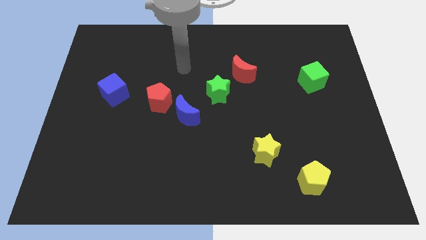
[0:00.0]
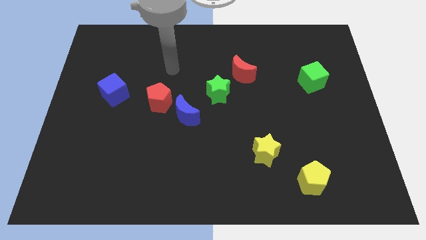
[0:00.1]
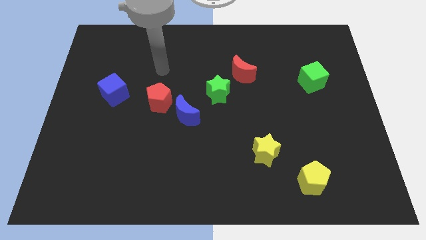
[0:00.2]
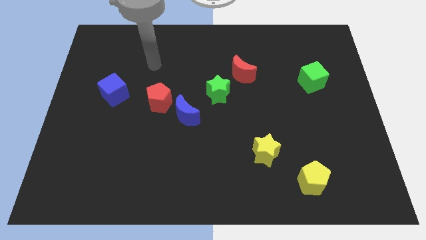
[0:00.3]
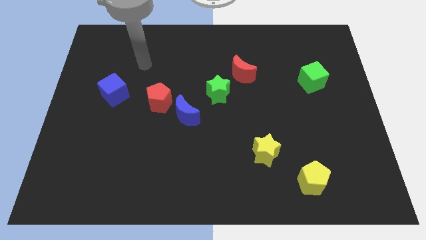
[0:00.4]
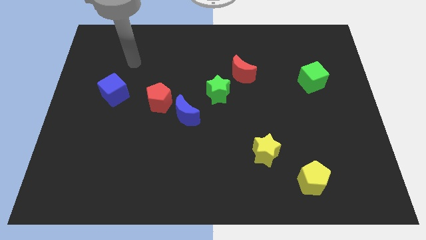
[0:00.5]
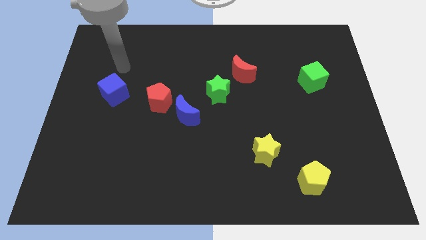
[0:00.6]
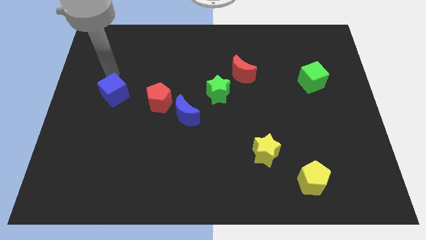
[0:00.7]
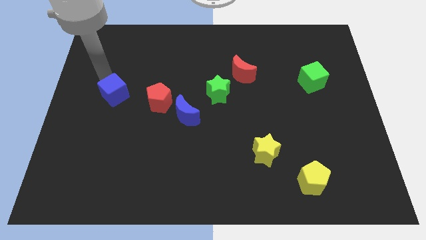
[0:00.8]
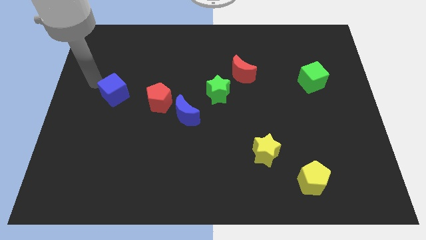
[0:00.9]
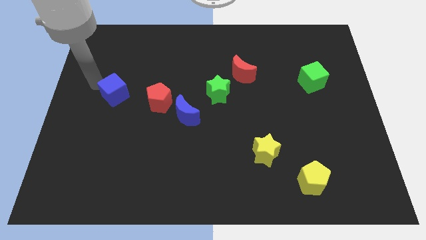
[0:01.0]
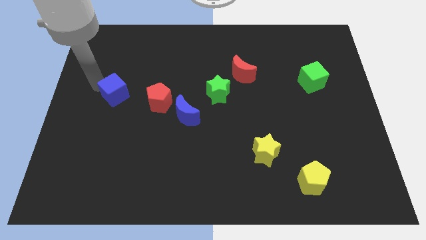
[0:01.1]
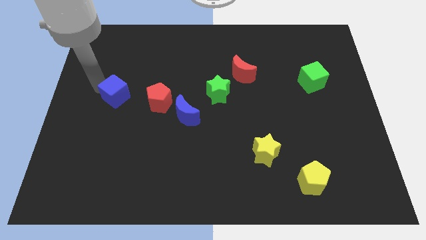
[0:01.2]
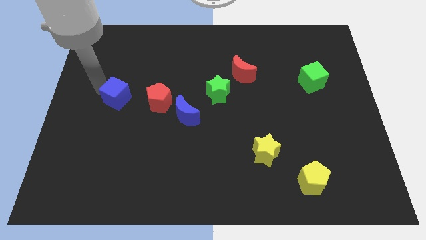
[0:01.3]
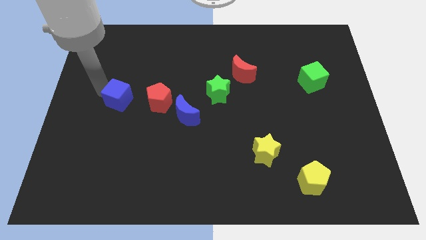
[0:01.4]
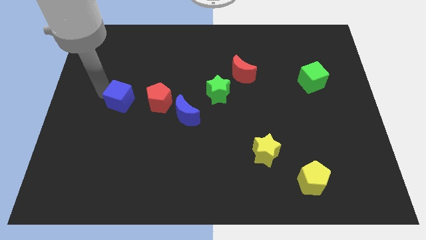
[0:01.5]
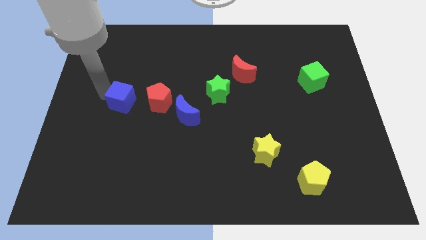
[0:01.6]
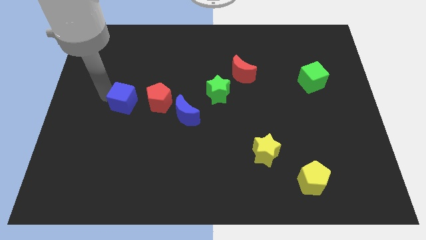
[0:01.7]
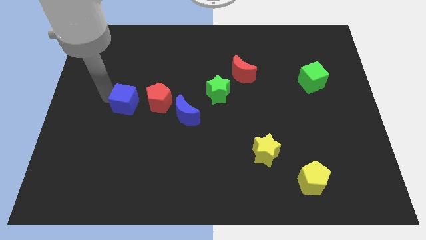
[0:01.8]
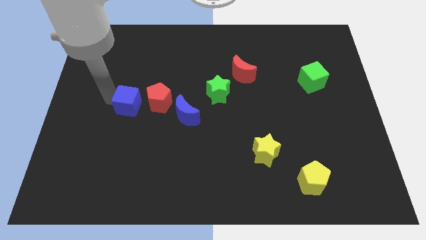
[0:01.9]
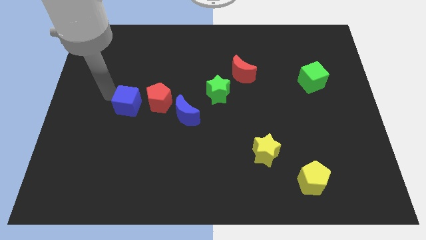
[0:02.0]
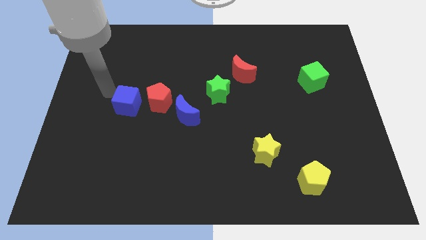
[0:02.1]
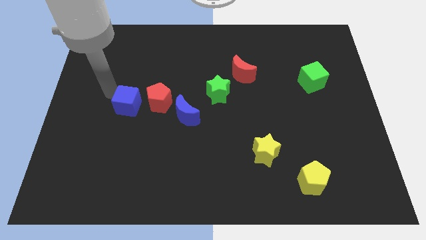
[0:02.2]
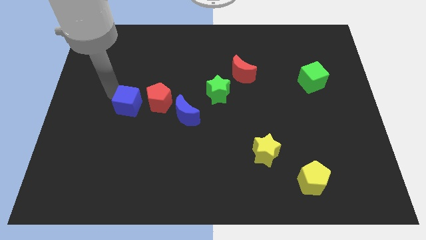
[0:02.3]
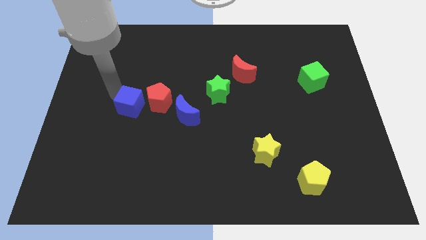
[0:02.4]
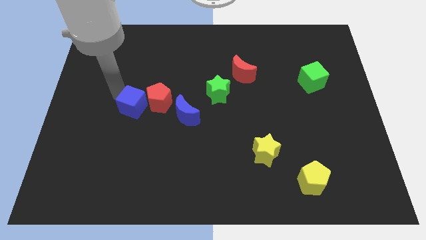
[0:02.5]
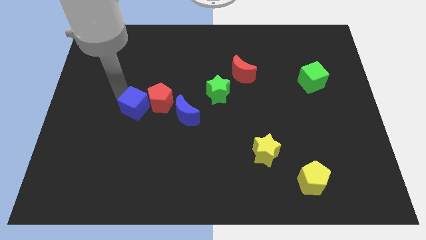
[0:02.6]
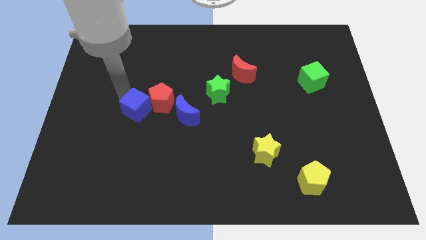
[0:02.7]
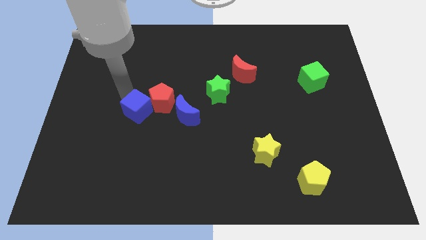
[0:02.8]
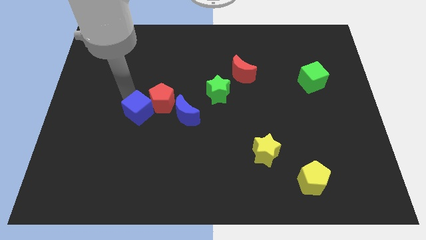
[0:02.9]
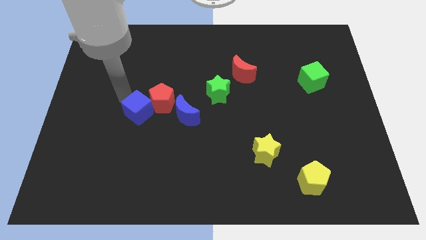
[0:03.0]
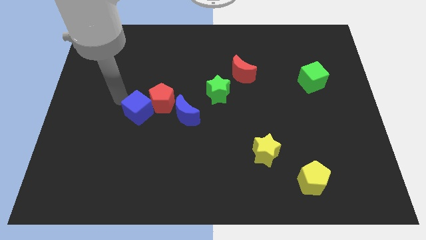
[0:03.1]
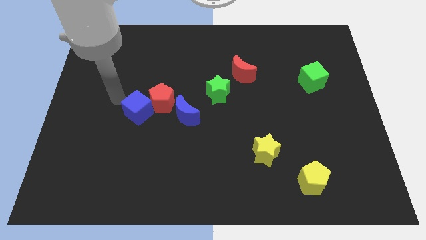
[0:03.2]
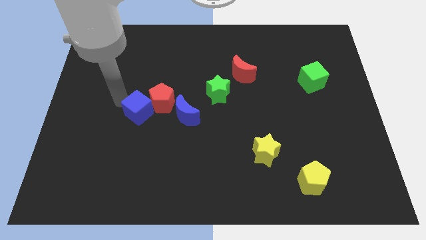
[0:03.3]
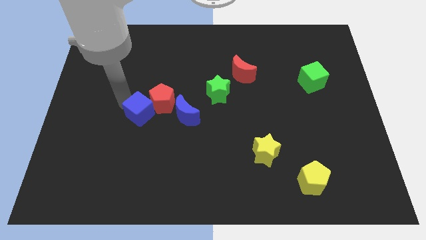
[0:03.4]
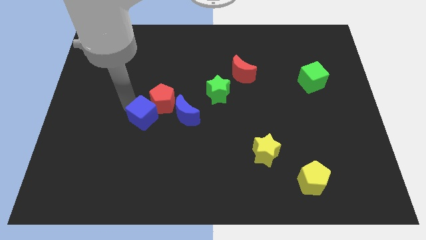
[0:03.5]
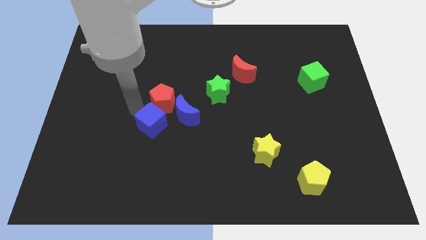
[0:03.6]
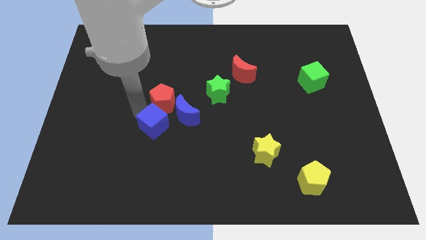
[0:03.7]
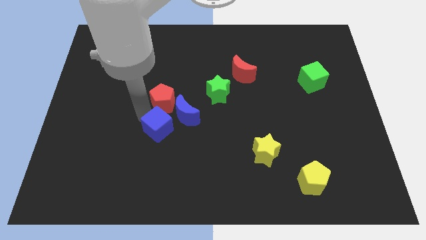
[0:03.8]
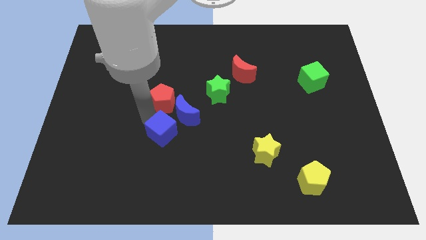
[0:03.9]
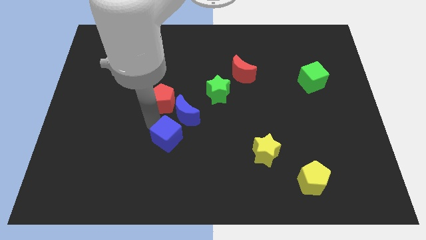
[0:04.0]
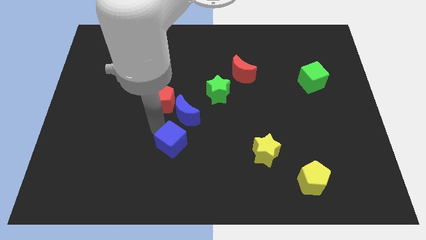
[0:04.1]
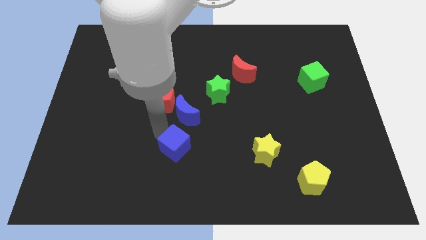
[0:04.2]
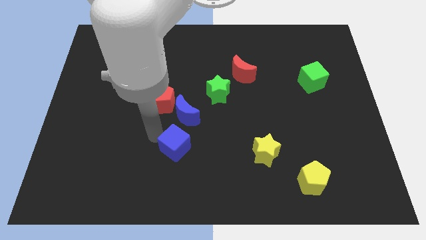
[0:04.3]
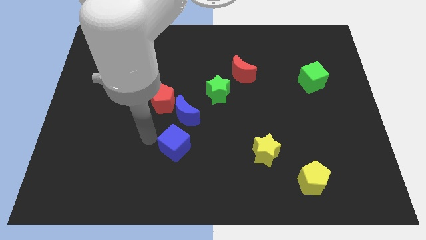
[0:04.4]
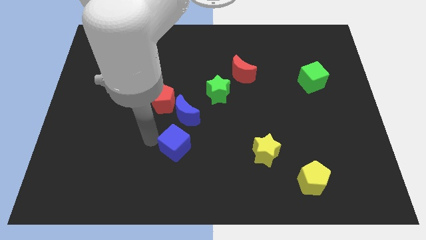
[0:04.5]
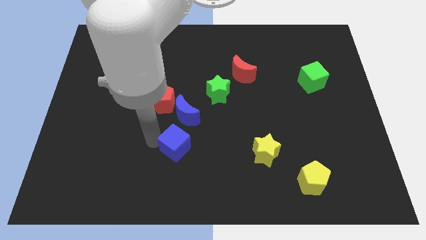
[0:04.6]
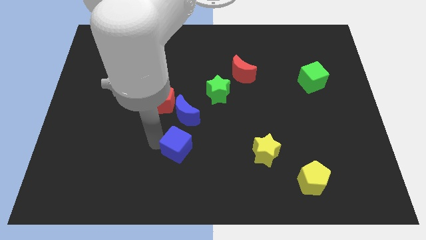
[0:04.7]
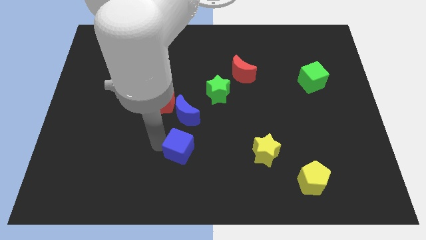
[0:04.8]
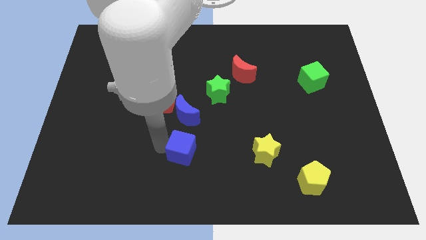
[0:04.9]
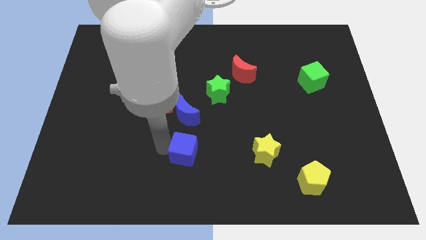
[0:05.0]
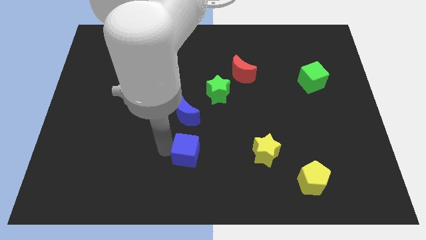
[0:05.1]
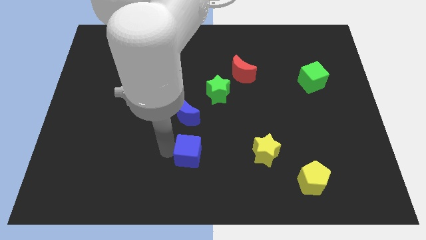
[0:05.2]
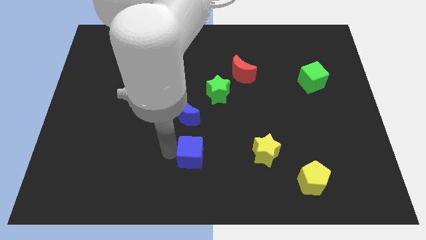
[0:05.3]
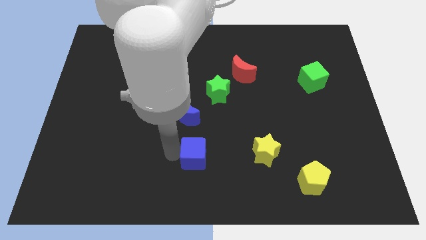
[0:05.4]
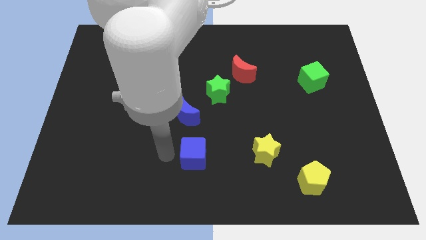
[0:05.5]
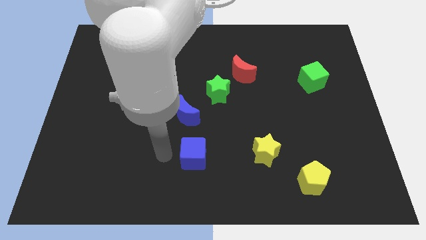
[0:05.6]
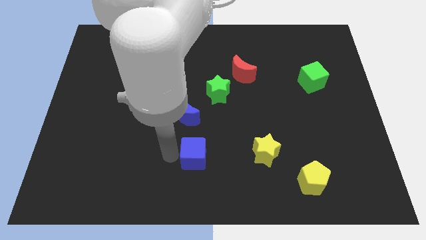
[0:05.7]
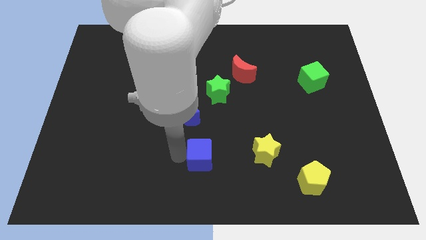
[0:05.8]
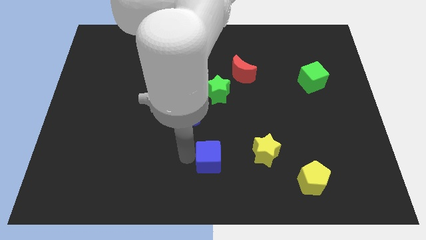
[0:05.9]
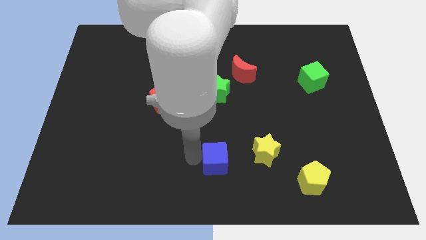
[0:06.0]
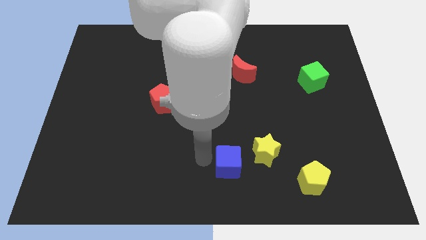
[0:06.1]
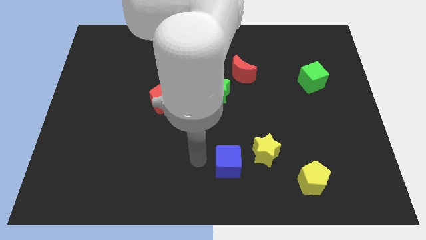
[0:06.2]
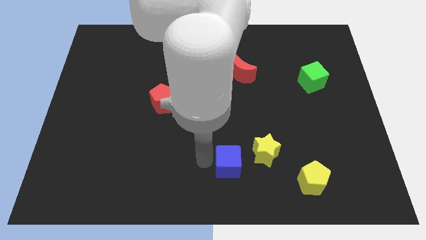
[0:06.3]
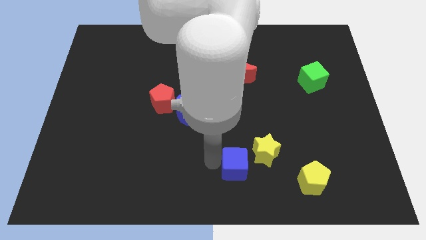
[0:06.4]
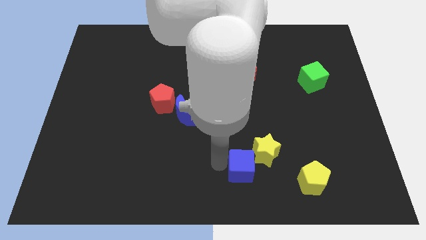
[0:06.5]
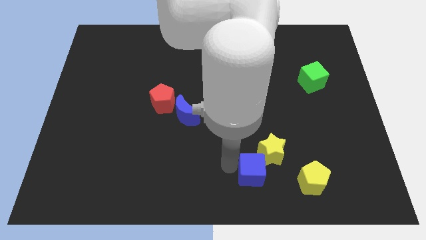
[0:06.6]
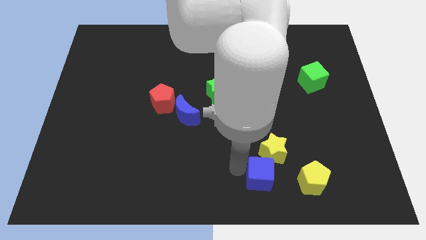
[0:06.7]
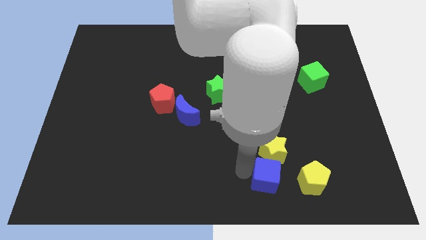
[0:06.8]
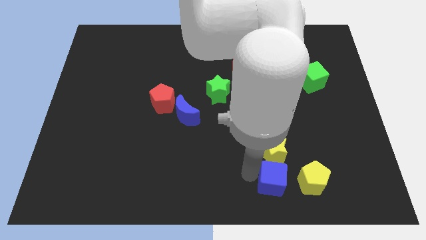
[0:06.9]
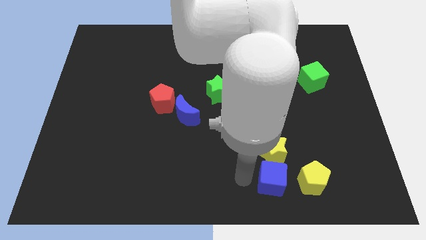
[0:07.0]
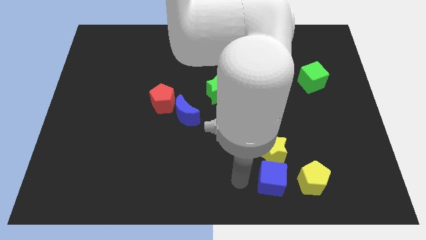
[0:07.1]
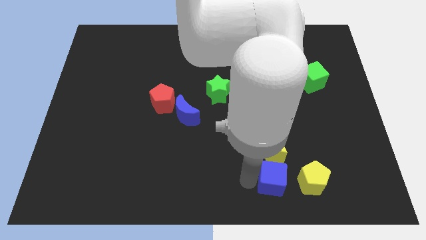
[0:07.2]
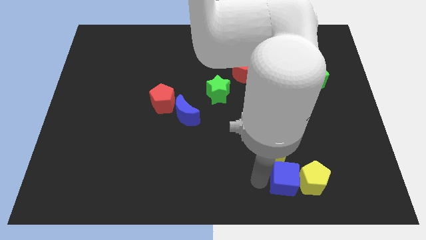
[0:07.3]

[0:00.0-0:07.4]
slide the blue cube to the yellow pentagon

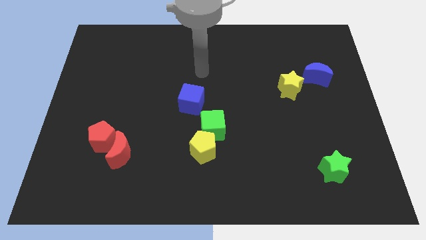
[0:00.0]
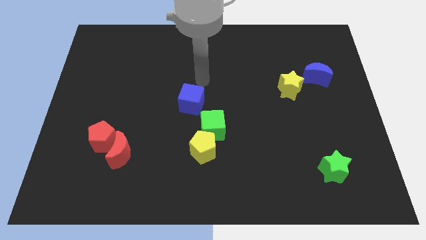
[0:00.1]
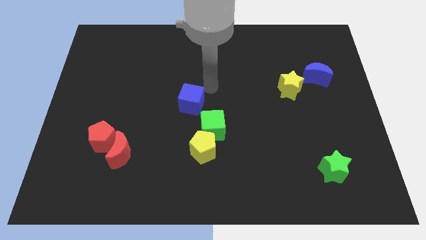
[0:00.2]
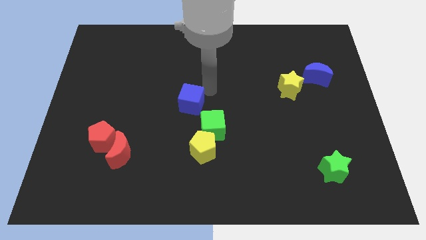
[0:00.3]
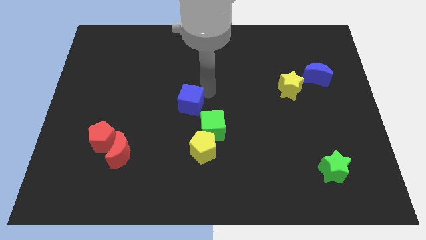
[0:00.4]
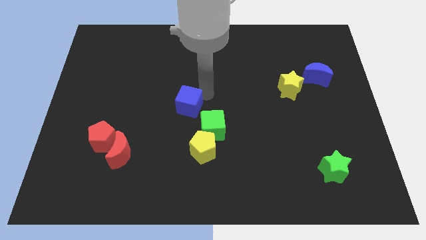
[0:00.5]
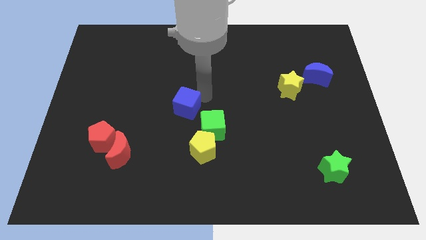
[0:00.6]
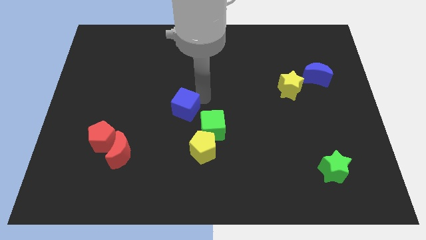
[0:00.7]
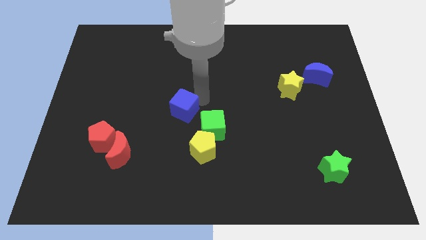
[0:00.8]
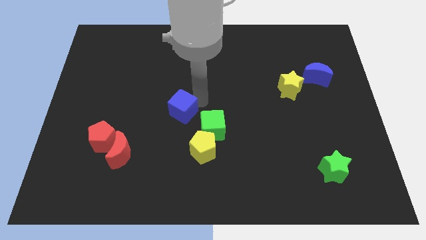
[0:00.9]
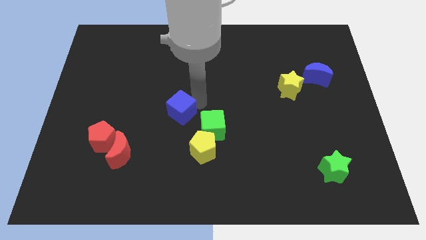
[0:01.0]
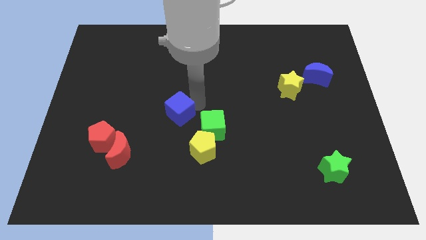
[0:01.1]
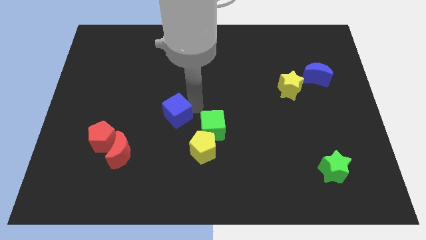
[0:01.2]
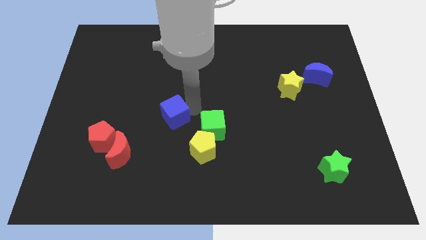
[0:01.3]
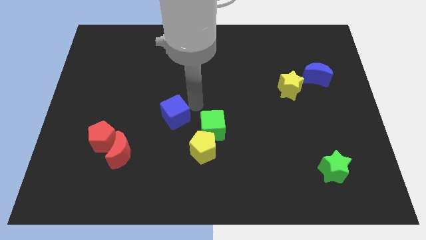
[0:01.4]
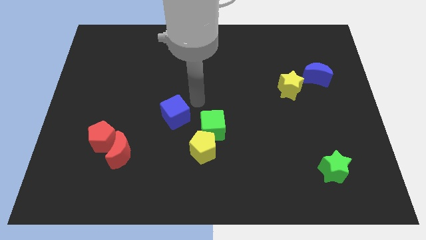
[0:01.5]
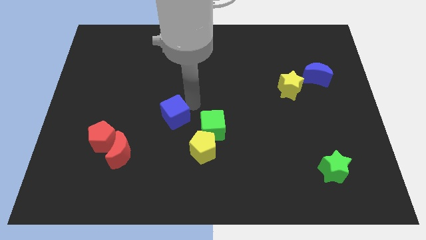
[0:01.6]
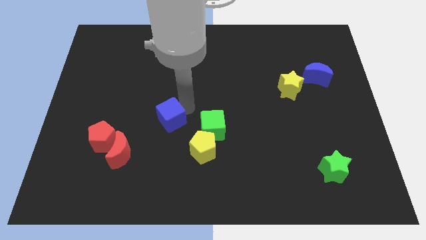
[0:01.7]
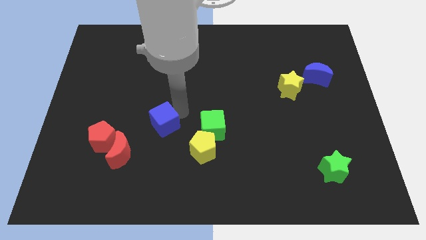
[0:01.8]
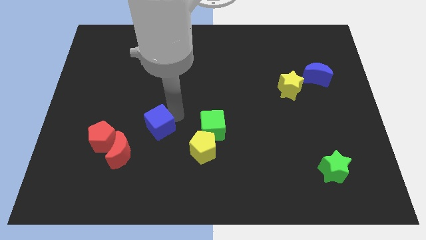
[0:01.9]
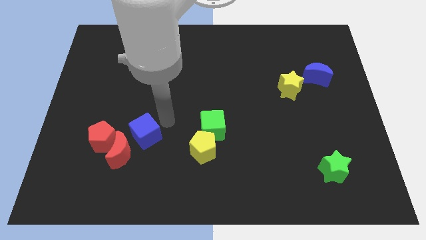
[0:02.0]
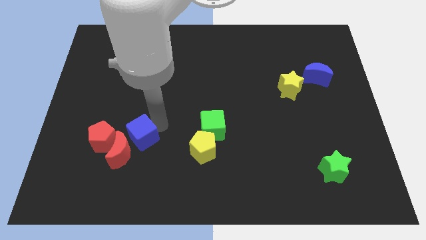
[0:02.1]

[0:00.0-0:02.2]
push the blue cube close to the red moon
